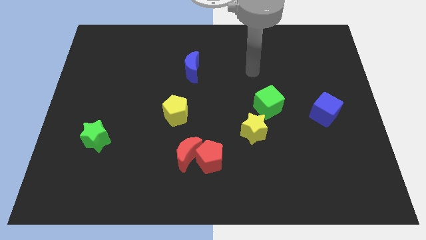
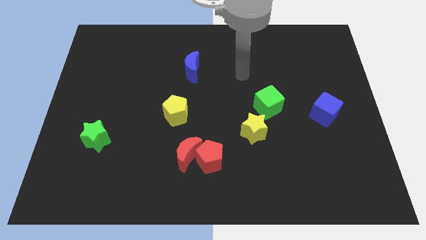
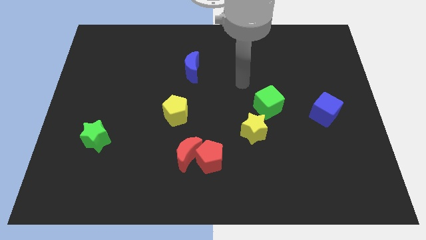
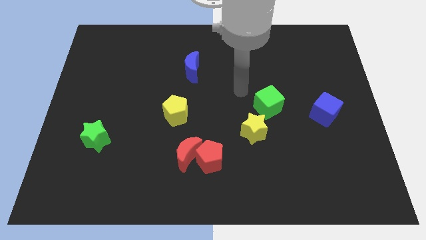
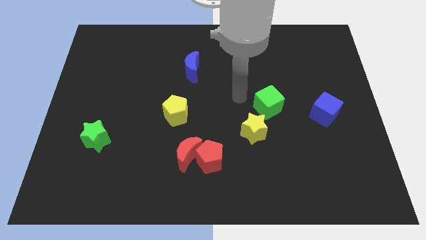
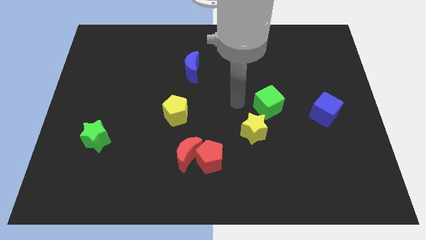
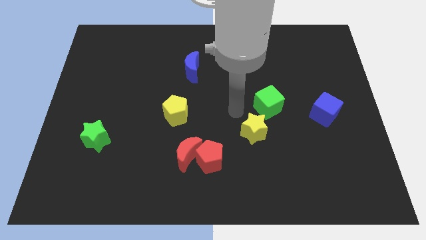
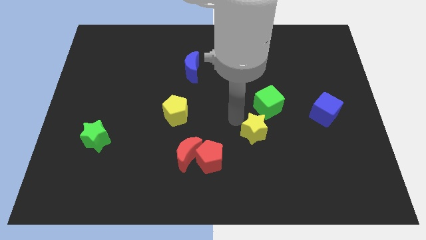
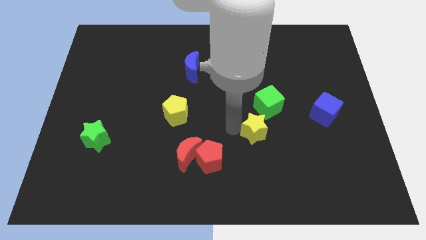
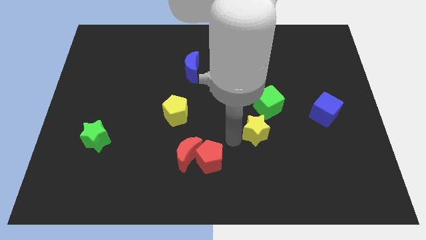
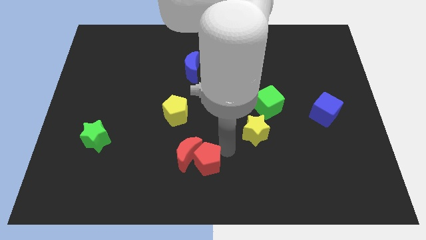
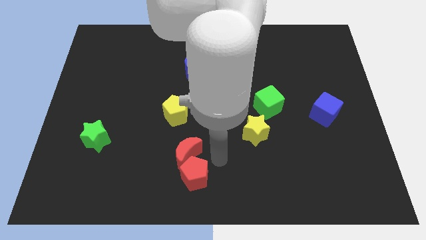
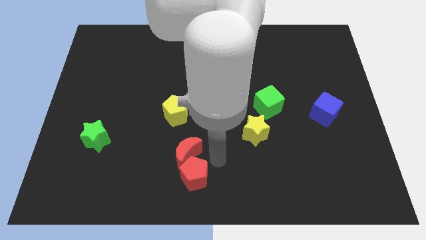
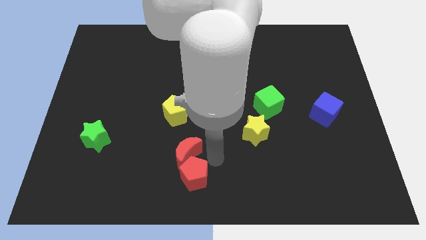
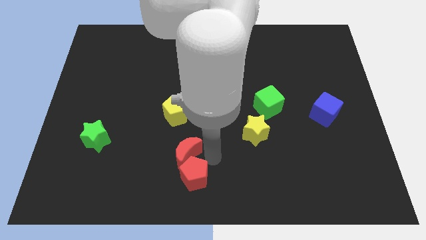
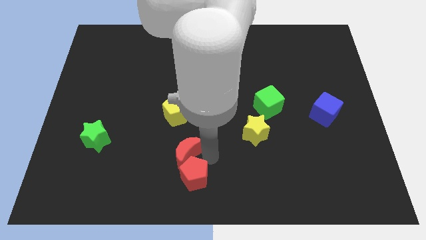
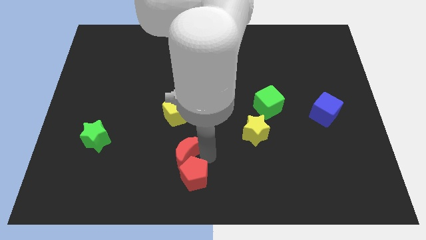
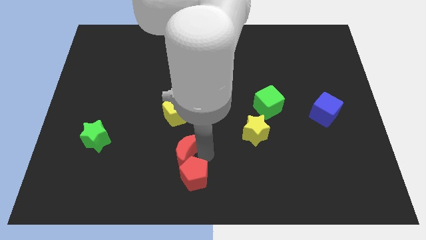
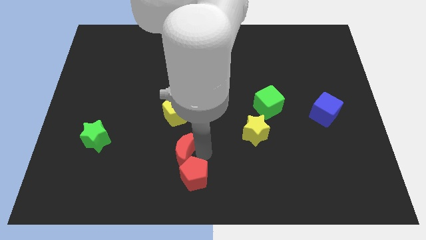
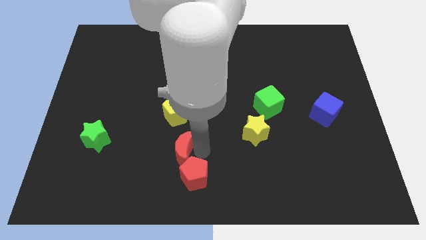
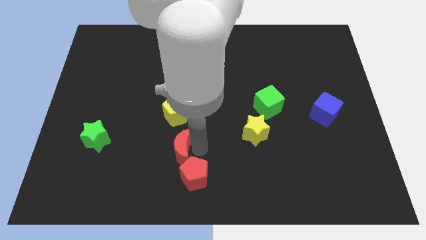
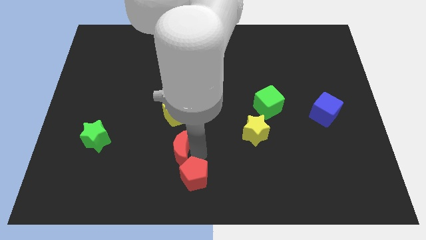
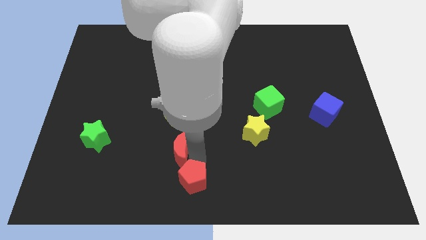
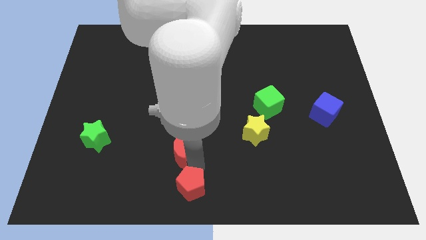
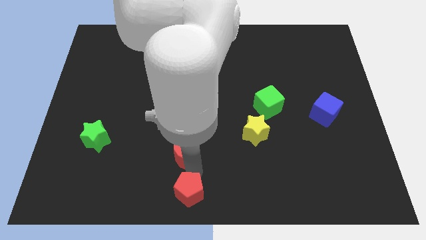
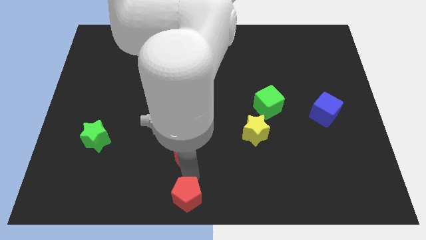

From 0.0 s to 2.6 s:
move the red moon away from the red pentagon

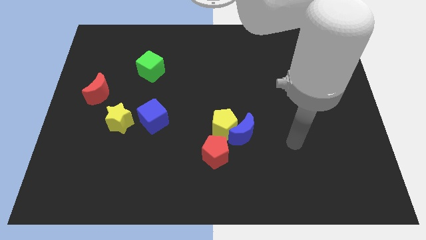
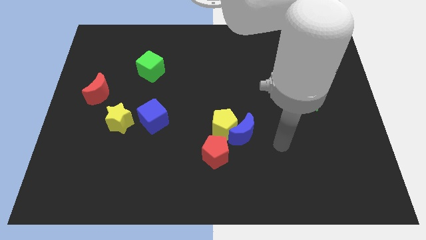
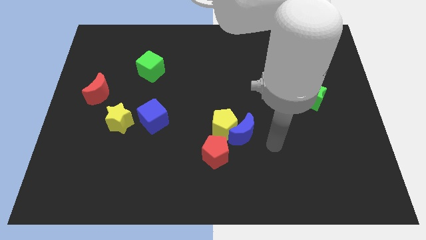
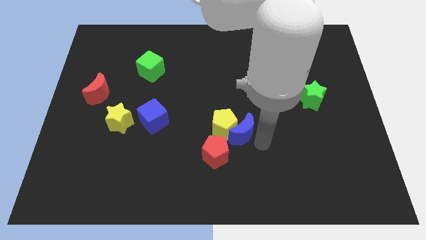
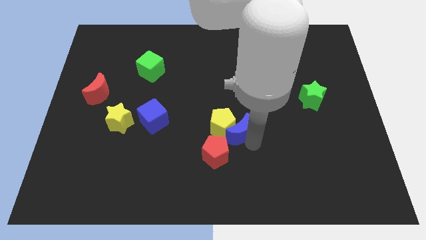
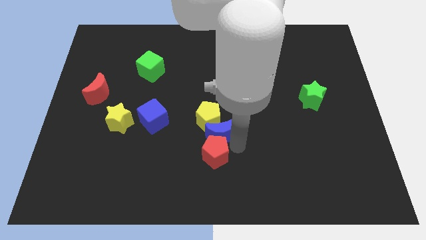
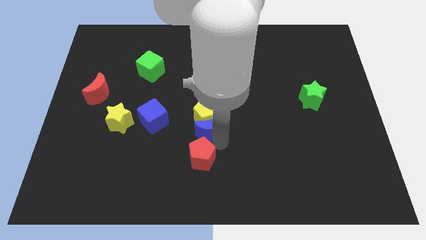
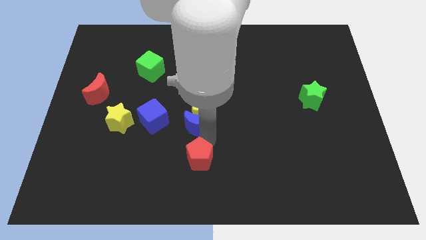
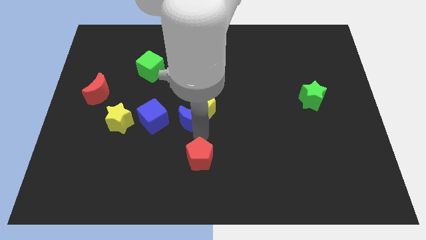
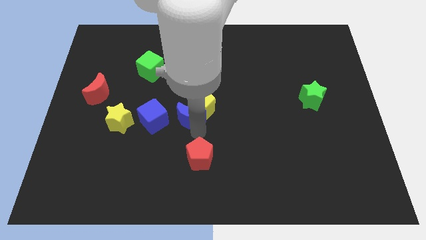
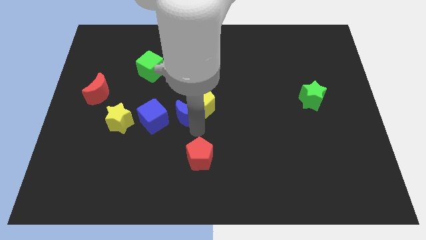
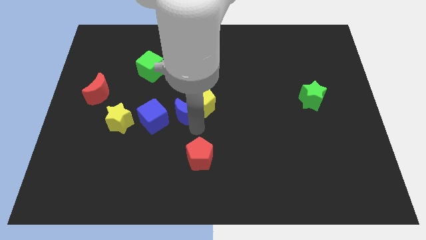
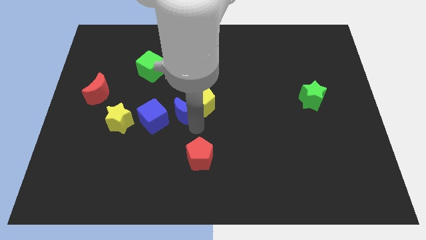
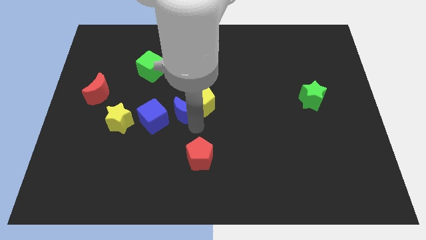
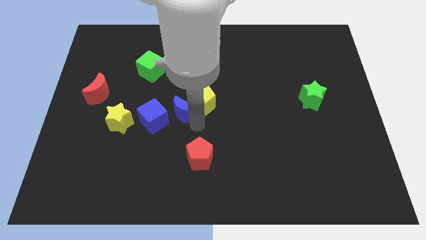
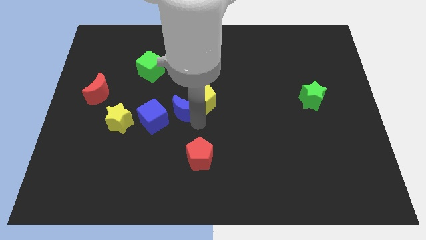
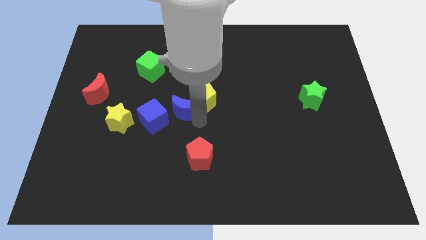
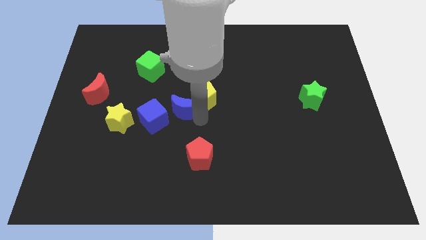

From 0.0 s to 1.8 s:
separate the yellow pentagon from the blue moon and red pentagon

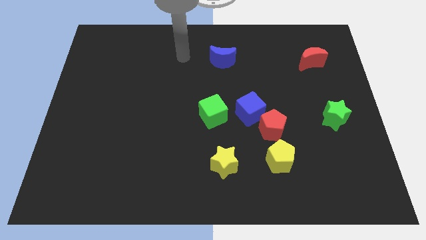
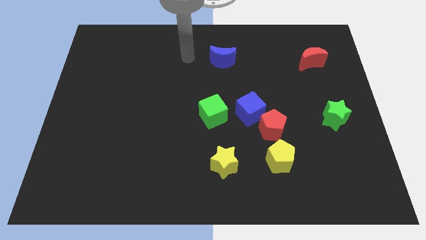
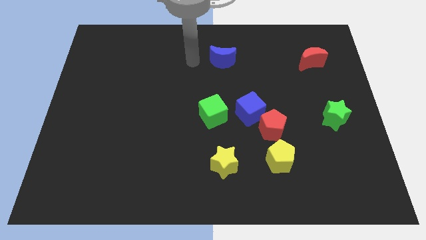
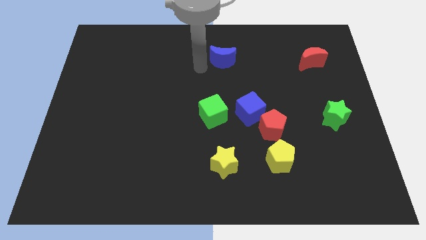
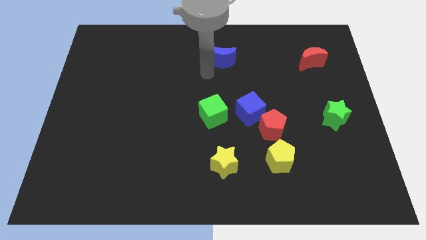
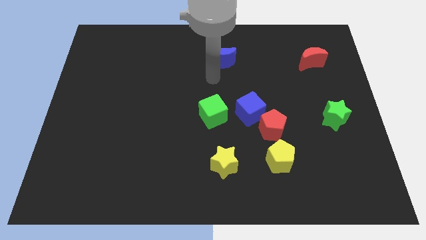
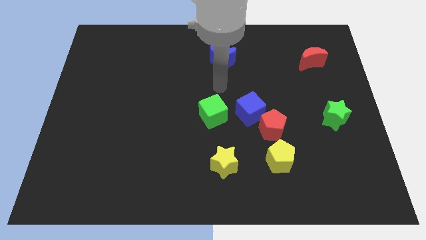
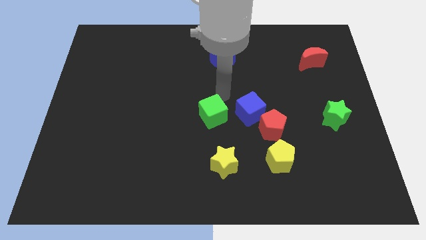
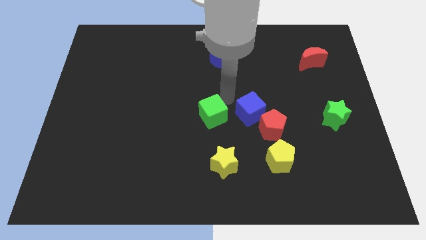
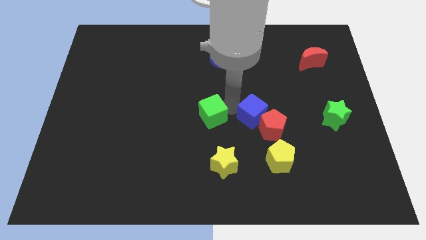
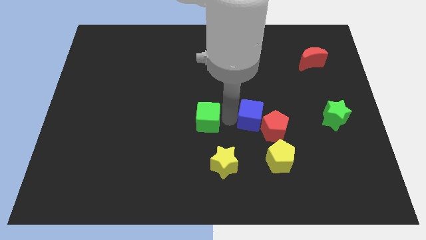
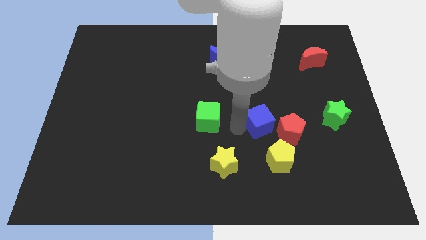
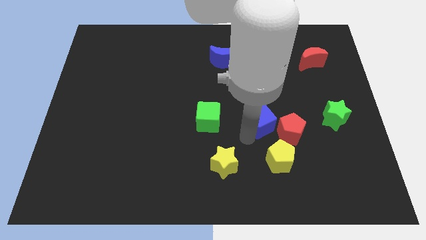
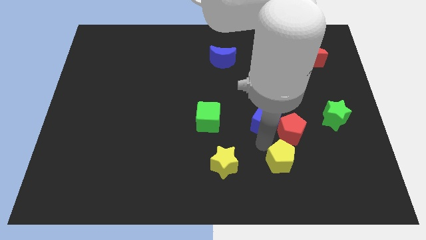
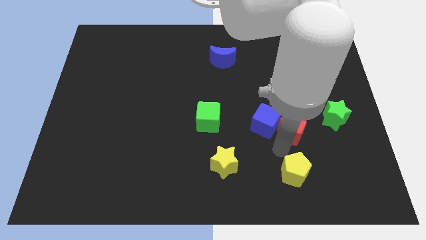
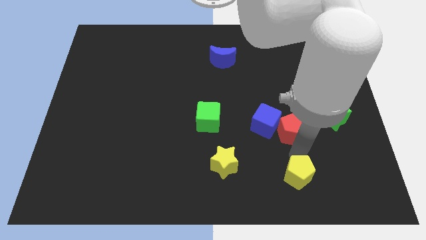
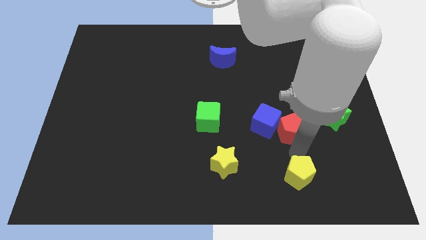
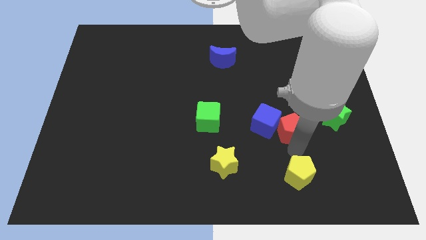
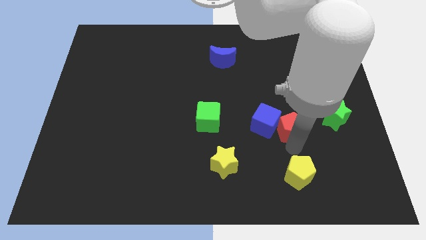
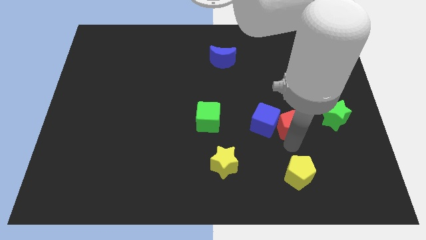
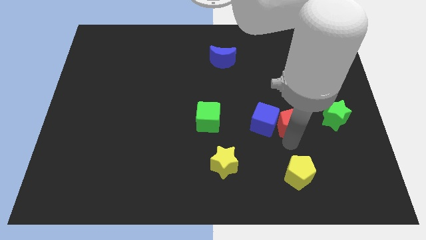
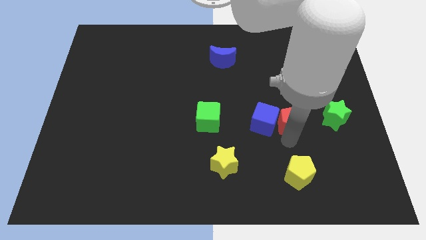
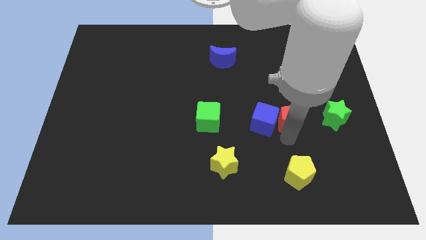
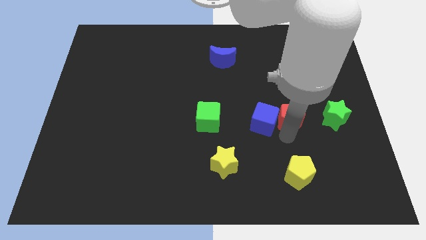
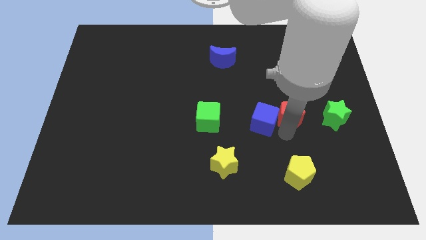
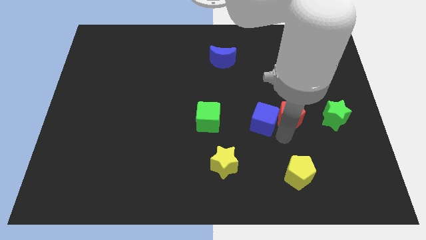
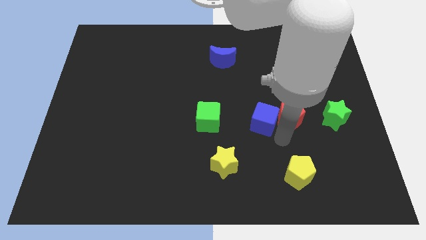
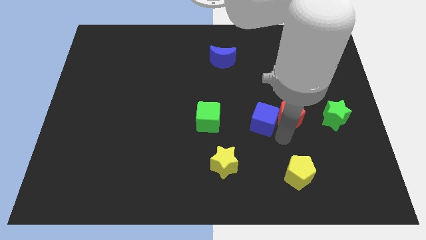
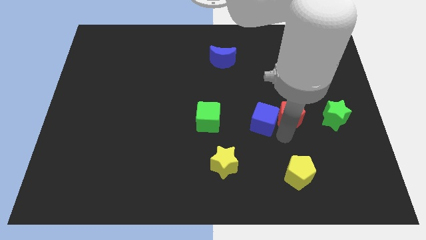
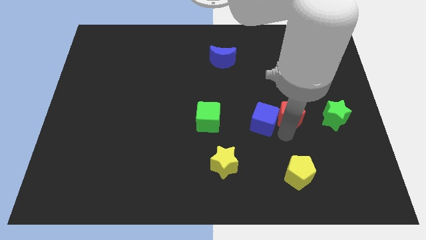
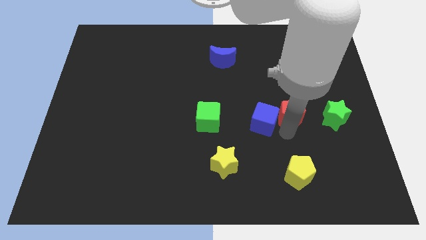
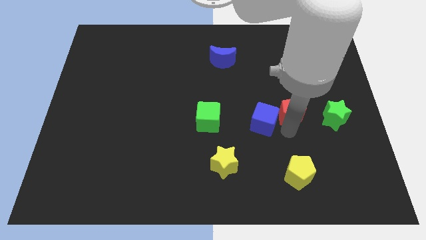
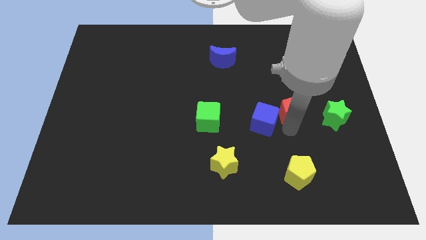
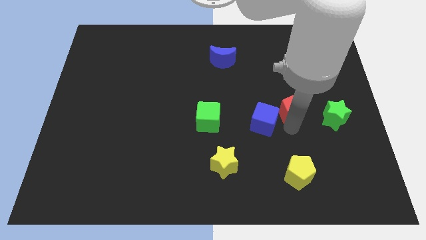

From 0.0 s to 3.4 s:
separate the red pentagon from the blue cube and yellow pentagon

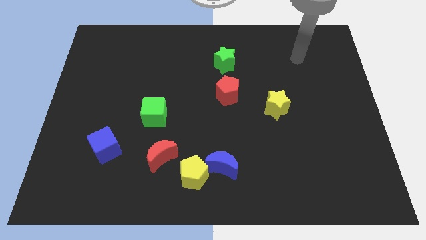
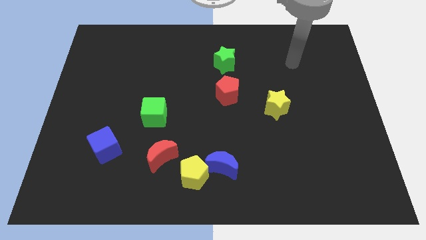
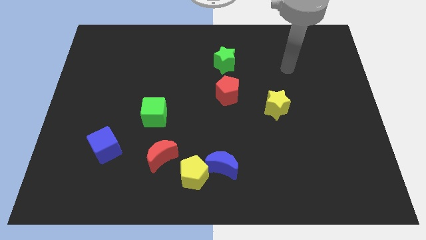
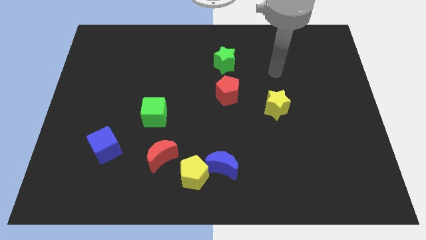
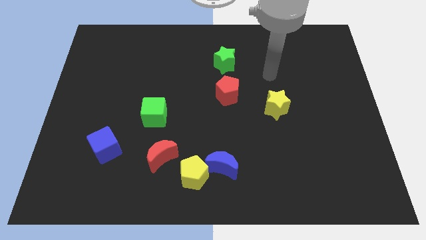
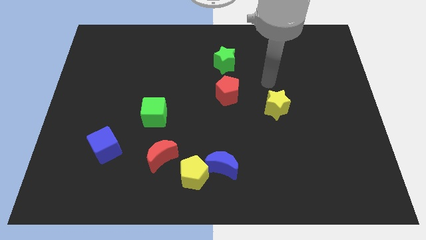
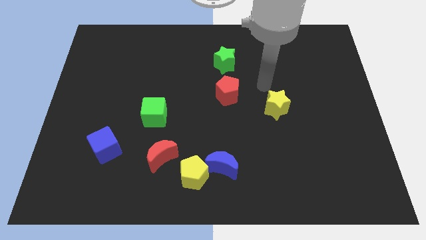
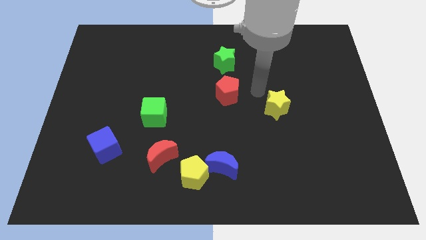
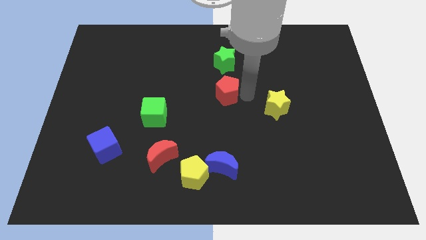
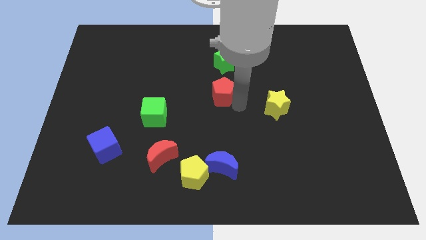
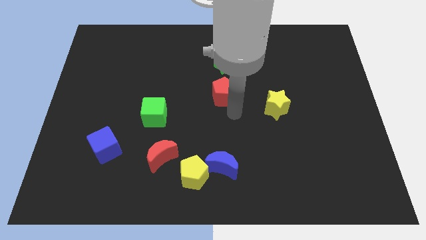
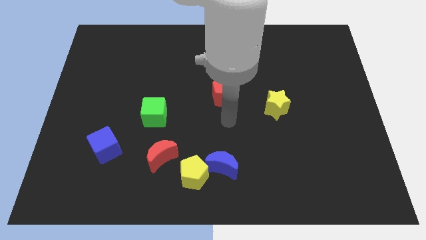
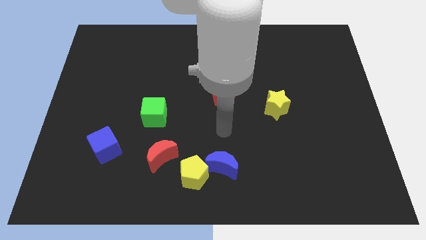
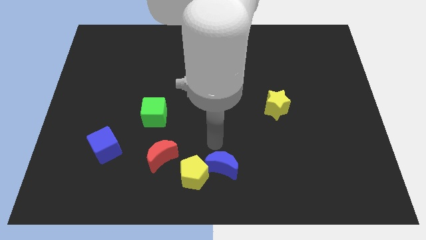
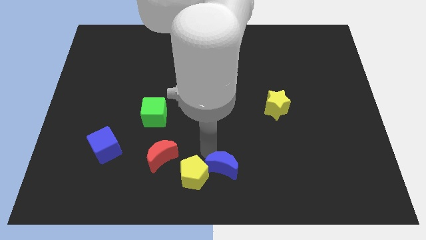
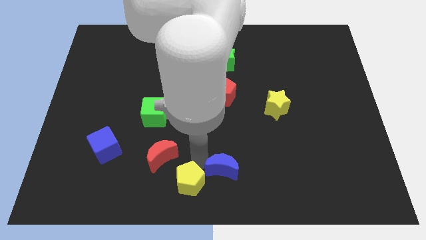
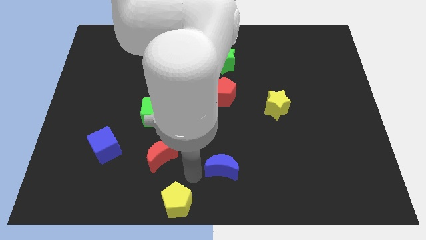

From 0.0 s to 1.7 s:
move the blue moon away from the yellow pentagon
